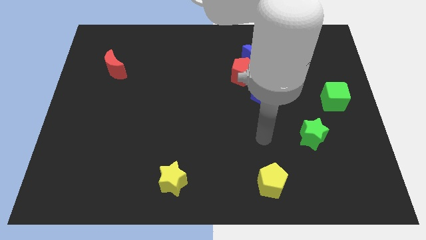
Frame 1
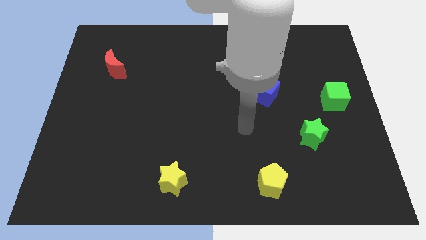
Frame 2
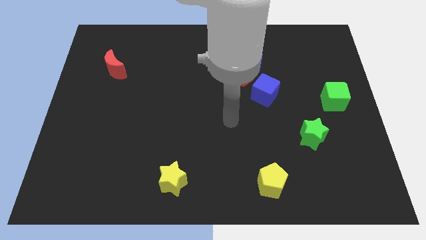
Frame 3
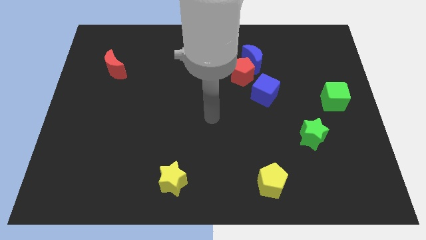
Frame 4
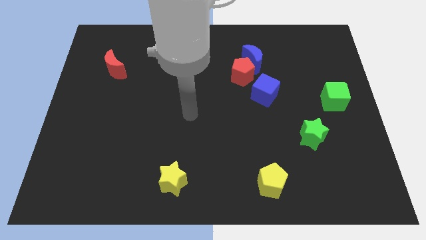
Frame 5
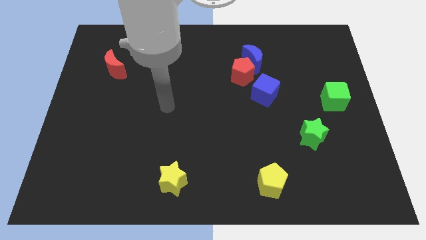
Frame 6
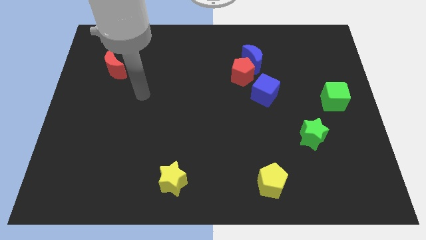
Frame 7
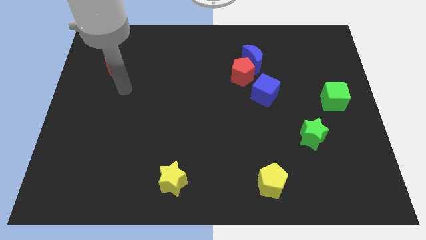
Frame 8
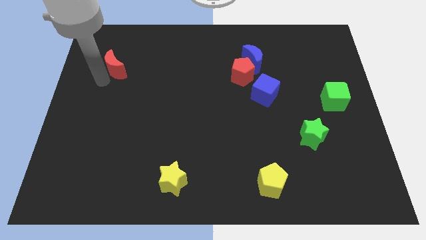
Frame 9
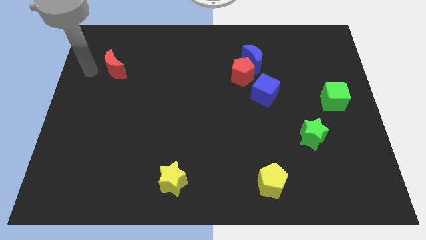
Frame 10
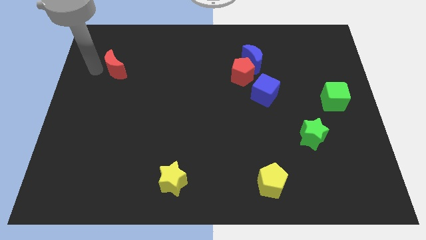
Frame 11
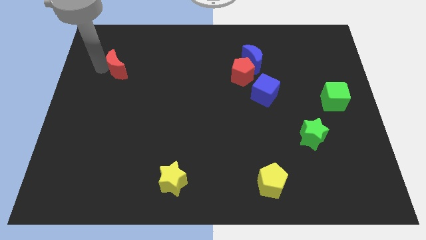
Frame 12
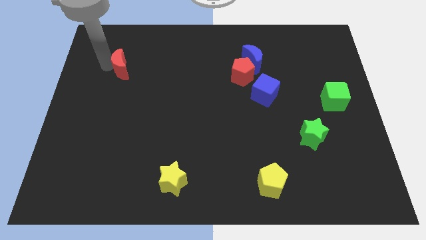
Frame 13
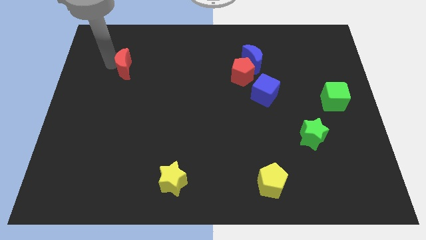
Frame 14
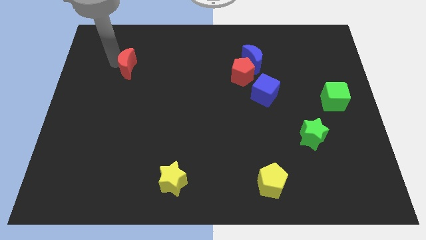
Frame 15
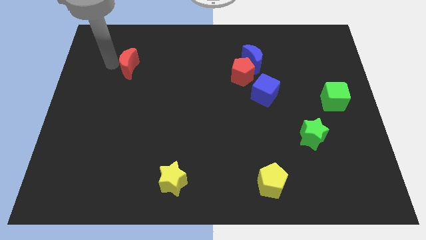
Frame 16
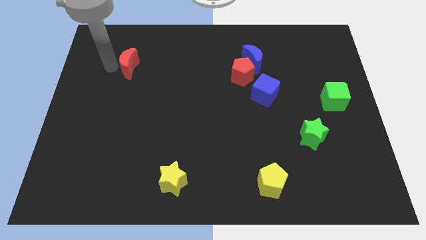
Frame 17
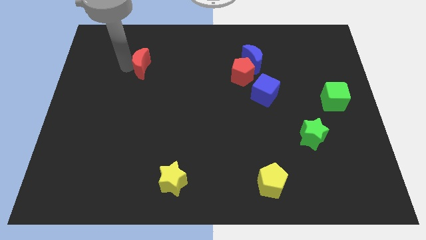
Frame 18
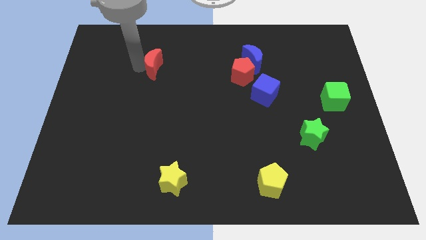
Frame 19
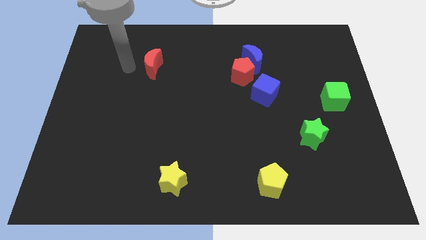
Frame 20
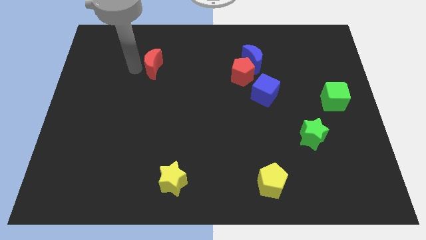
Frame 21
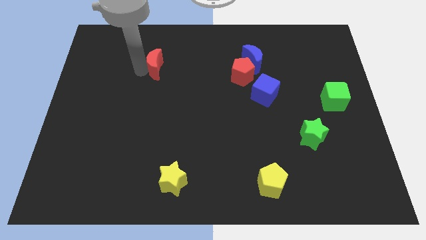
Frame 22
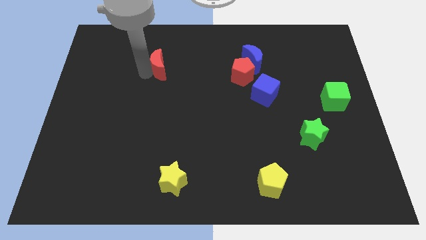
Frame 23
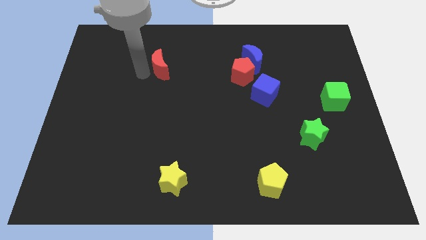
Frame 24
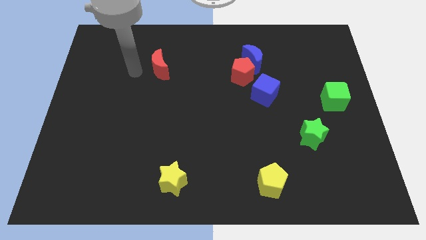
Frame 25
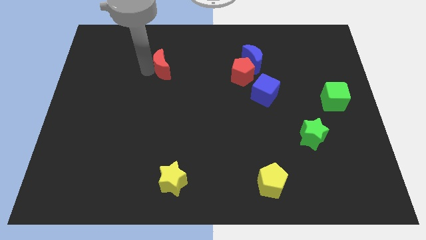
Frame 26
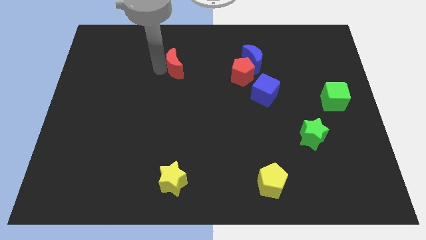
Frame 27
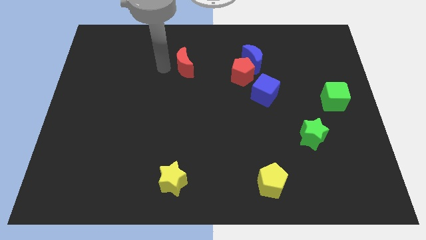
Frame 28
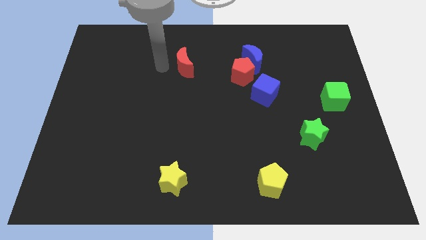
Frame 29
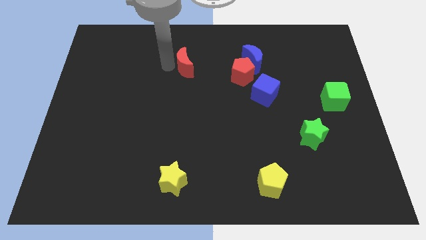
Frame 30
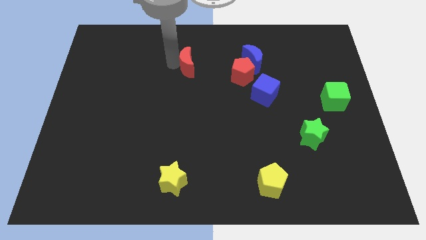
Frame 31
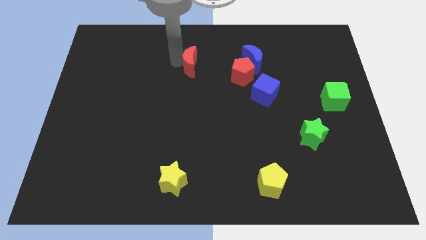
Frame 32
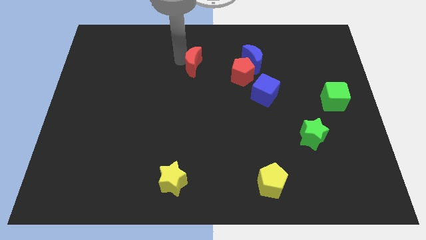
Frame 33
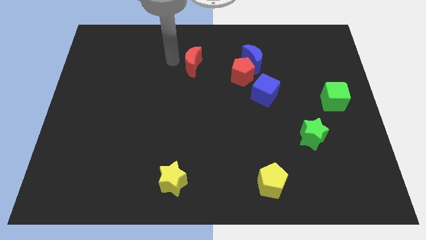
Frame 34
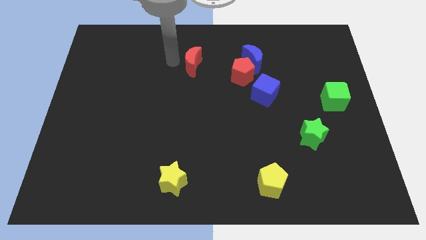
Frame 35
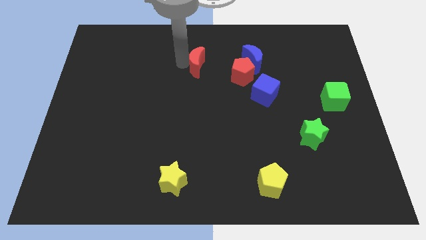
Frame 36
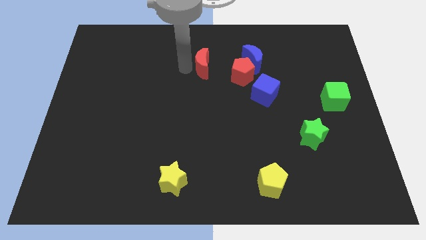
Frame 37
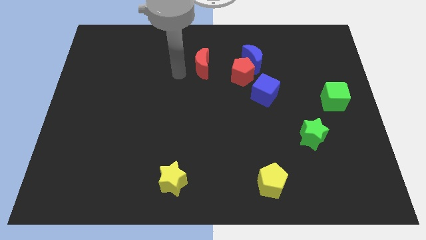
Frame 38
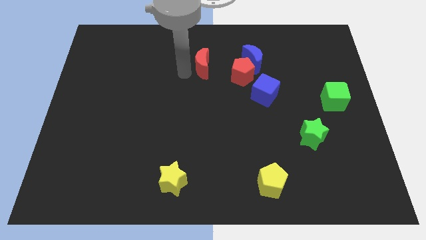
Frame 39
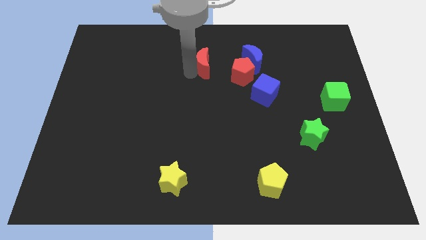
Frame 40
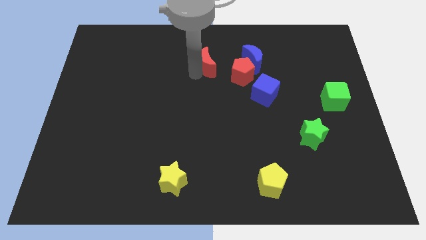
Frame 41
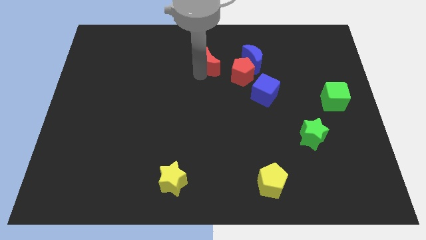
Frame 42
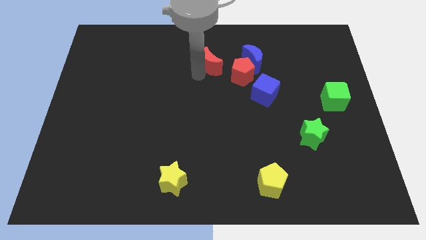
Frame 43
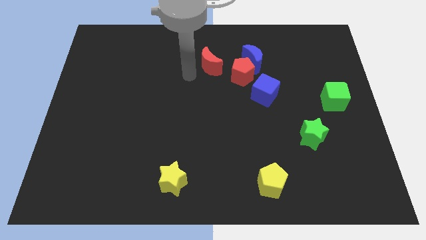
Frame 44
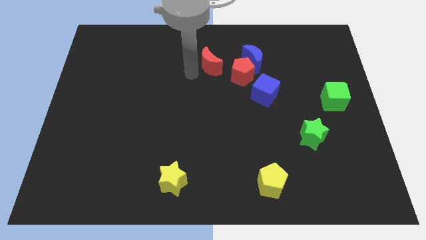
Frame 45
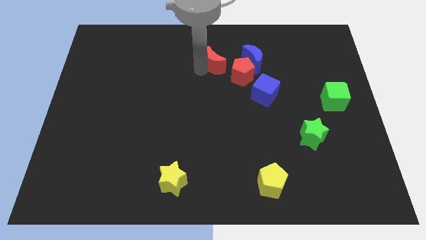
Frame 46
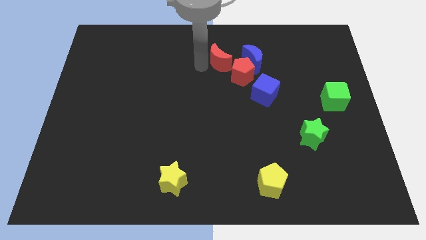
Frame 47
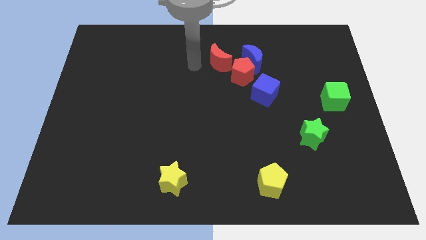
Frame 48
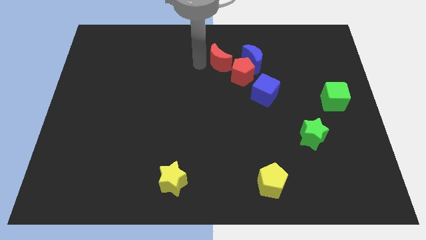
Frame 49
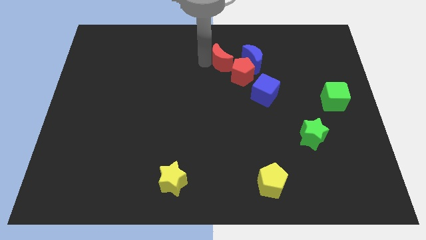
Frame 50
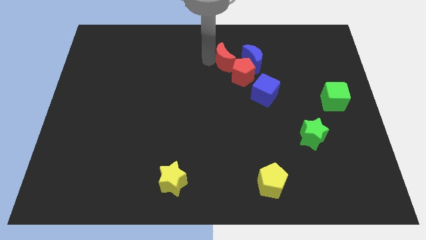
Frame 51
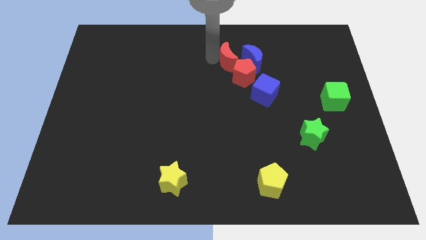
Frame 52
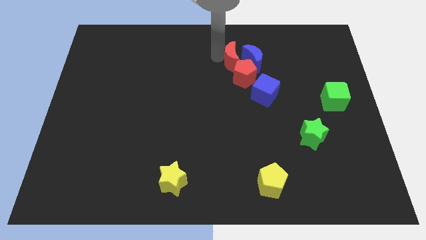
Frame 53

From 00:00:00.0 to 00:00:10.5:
slide the red moon towards the blue moon

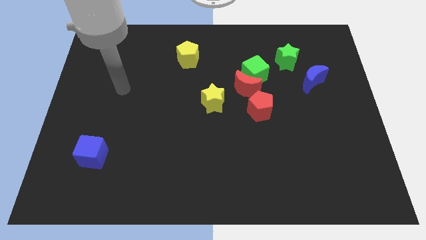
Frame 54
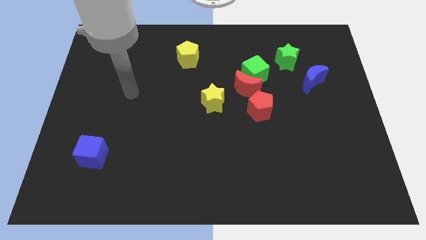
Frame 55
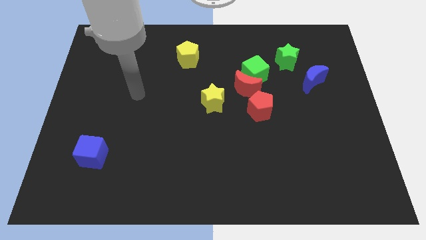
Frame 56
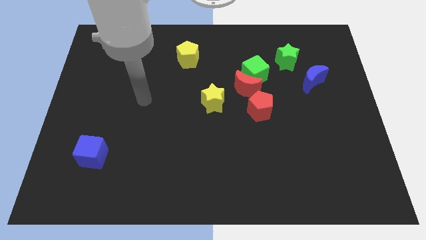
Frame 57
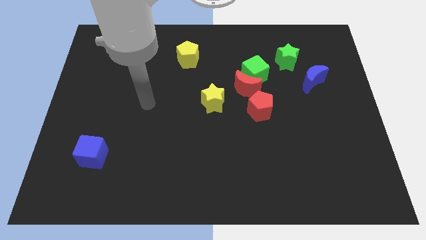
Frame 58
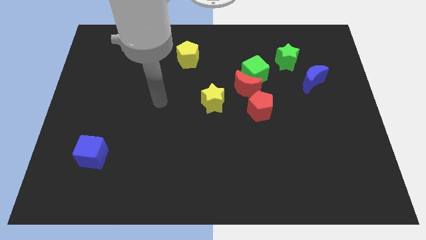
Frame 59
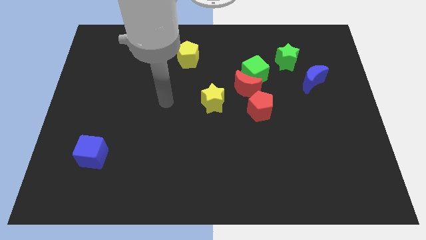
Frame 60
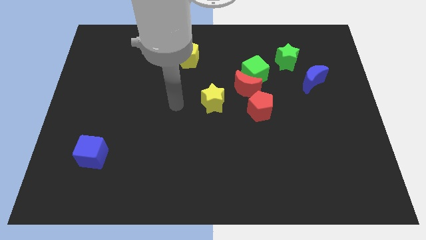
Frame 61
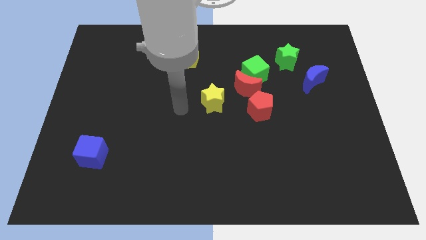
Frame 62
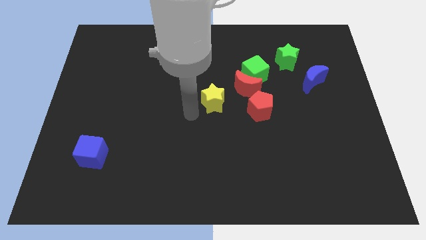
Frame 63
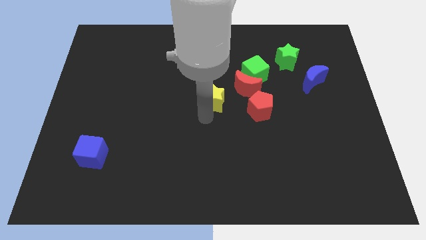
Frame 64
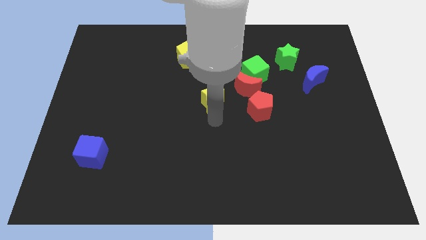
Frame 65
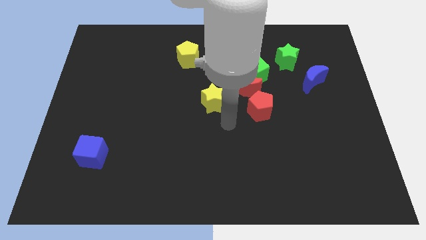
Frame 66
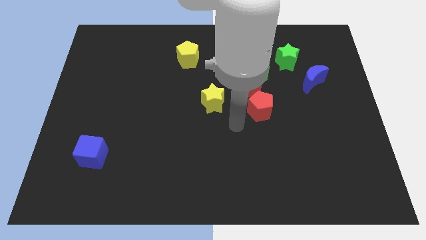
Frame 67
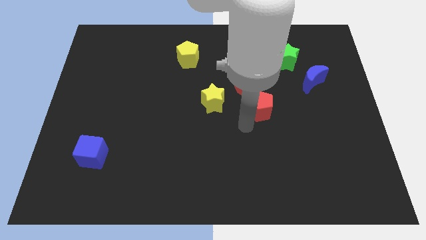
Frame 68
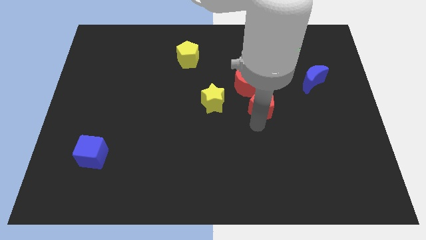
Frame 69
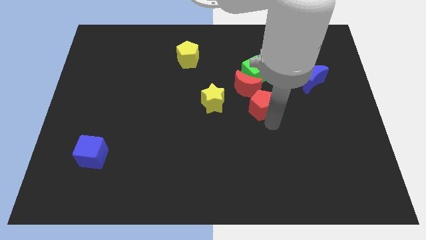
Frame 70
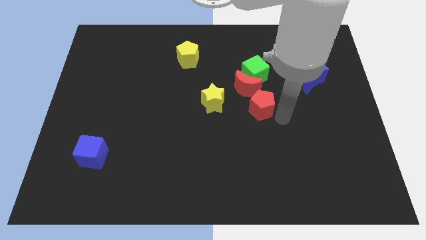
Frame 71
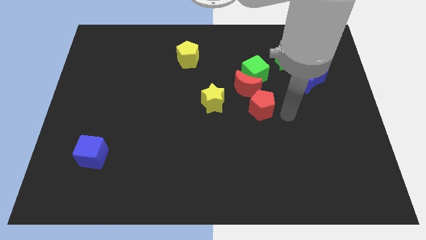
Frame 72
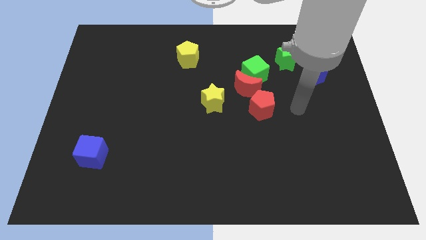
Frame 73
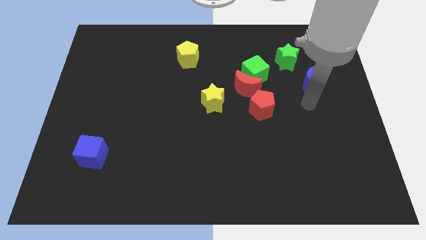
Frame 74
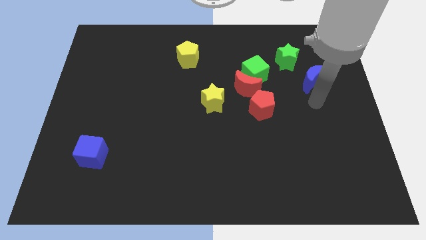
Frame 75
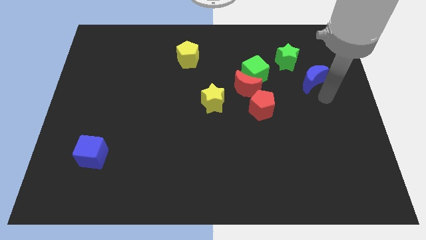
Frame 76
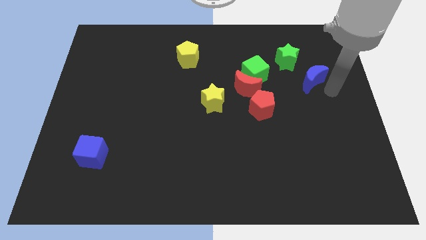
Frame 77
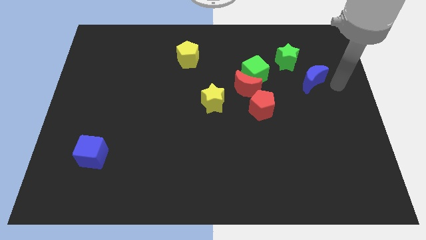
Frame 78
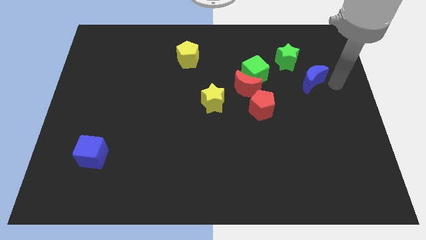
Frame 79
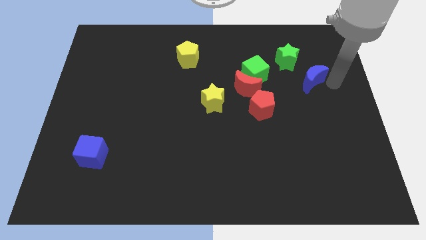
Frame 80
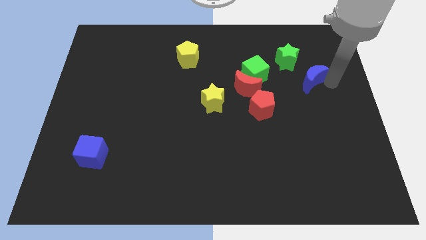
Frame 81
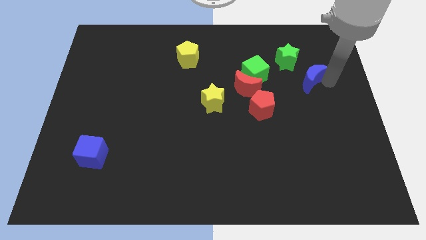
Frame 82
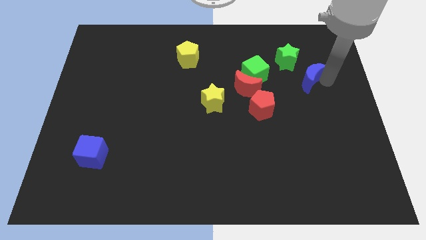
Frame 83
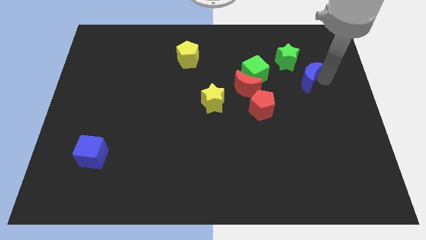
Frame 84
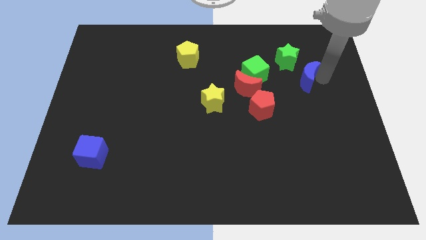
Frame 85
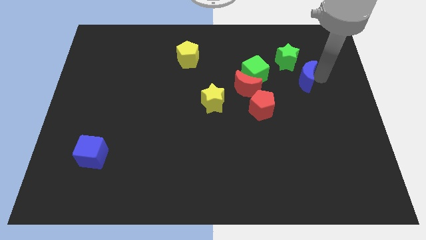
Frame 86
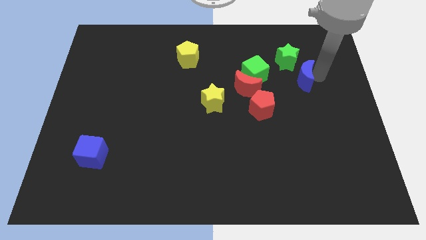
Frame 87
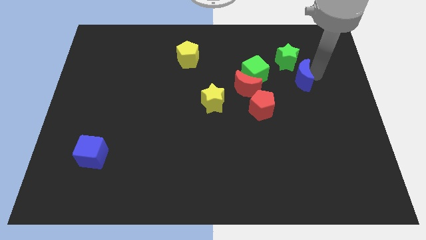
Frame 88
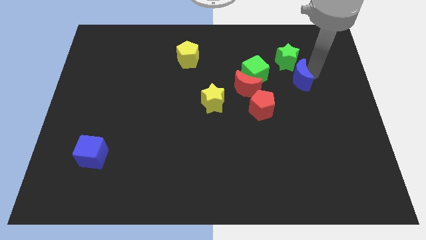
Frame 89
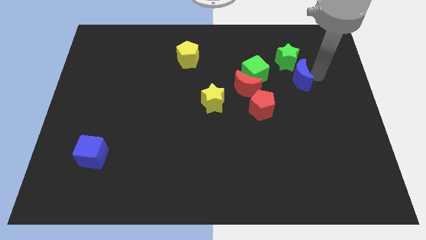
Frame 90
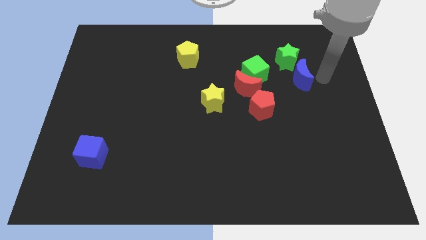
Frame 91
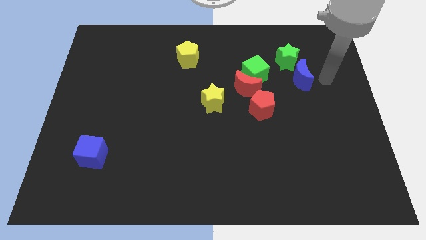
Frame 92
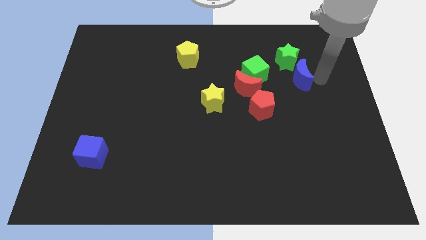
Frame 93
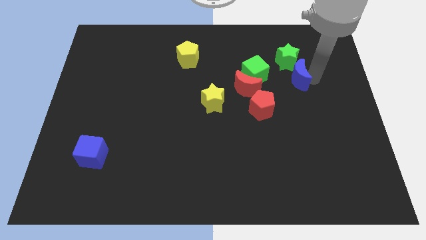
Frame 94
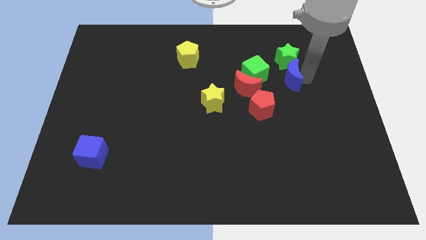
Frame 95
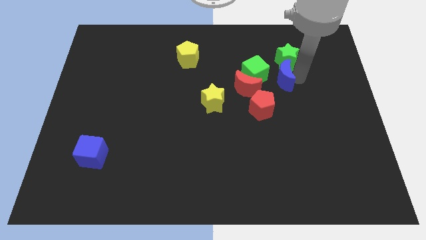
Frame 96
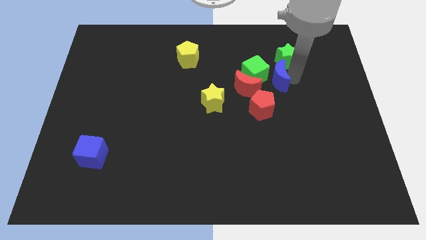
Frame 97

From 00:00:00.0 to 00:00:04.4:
put the blue moon to the green cube
